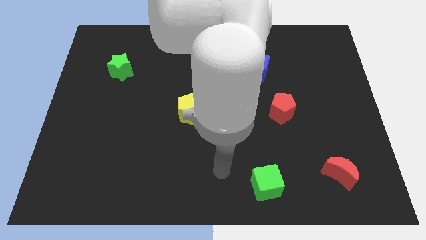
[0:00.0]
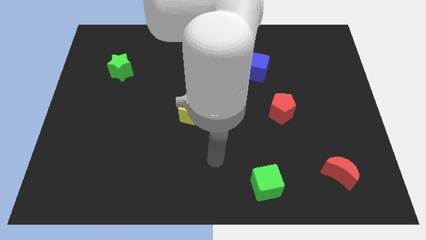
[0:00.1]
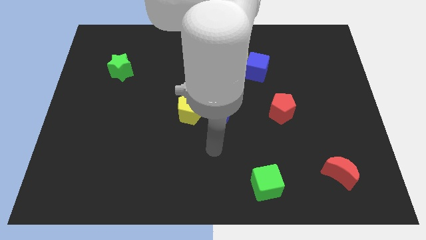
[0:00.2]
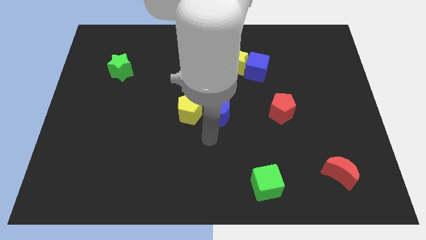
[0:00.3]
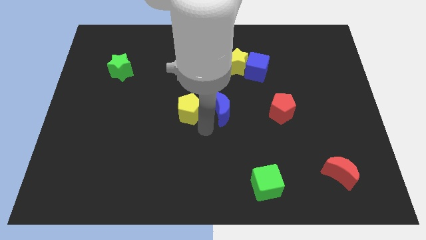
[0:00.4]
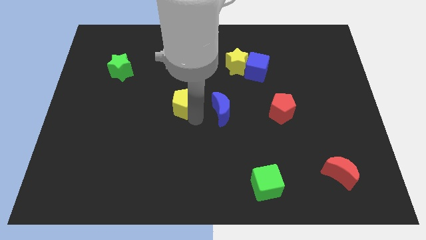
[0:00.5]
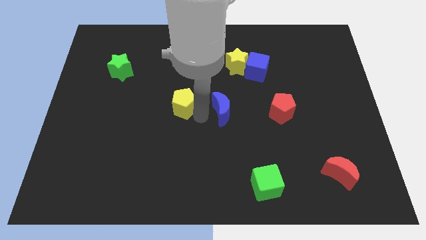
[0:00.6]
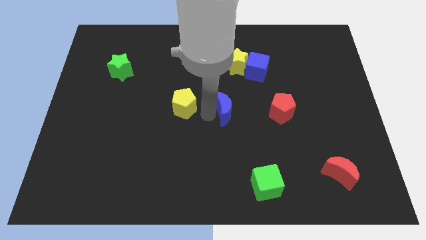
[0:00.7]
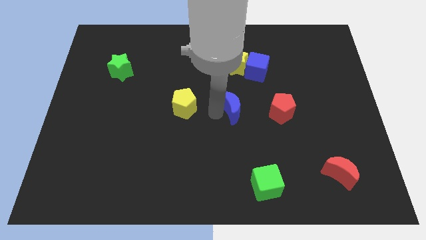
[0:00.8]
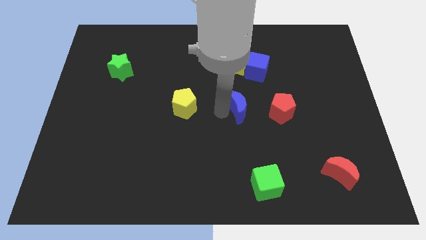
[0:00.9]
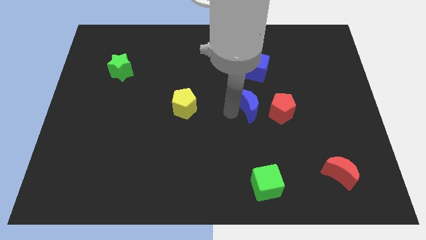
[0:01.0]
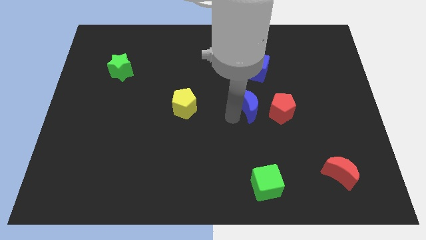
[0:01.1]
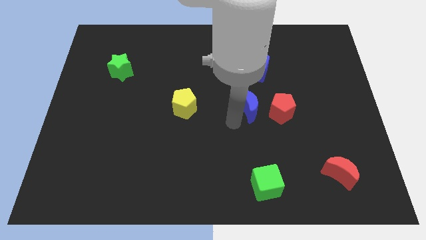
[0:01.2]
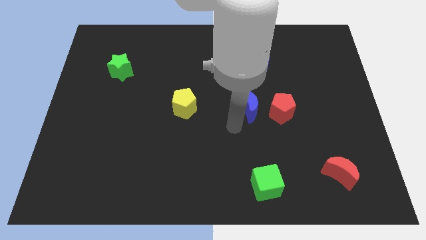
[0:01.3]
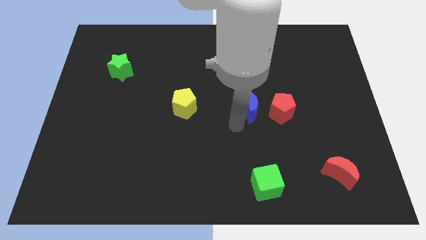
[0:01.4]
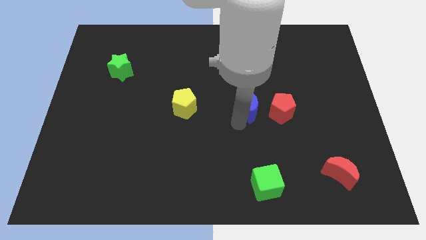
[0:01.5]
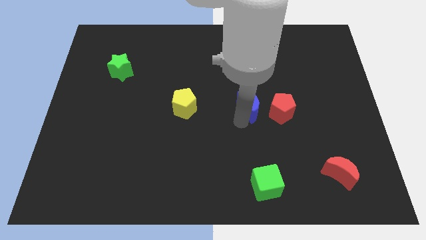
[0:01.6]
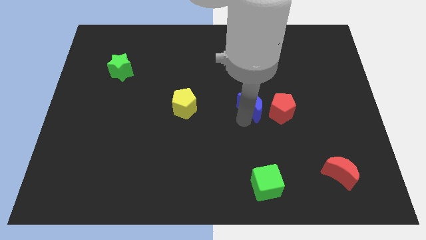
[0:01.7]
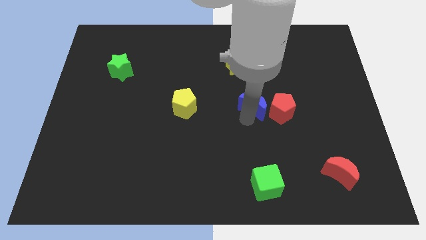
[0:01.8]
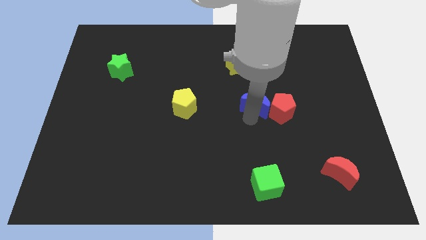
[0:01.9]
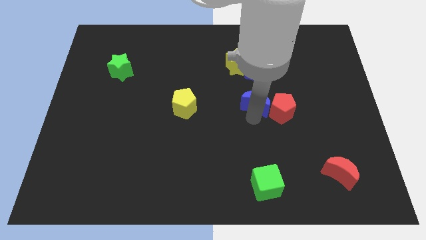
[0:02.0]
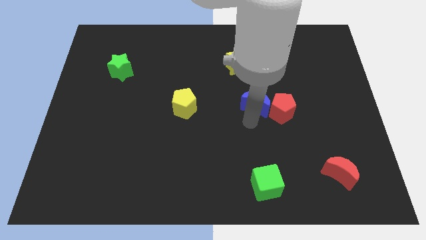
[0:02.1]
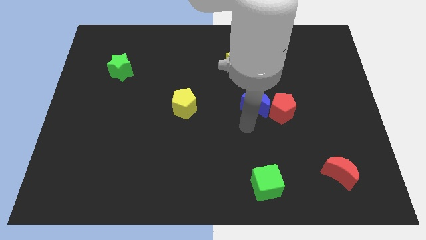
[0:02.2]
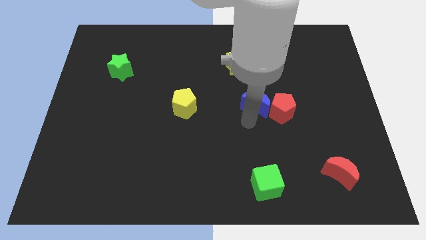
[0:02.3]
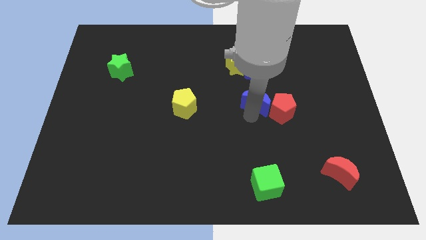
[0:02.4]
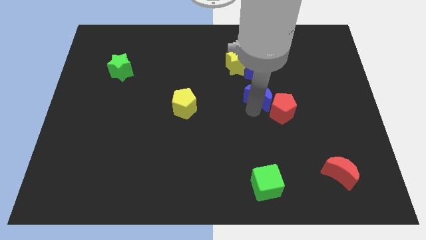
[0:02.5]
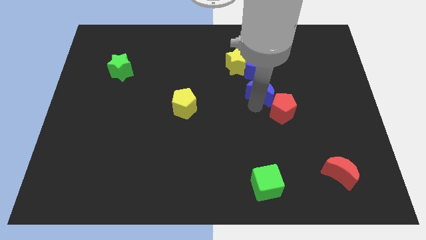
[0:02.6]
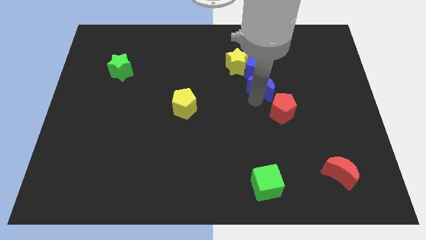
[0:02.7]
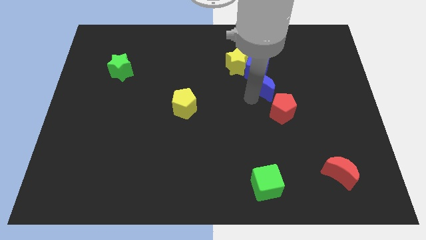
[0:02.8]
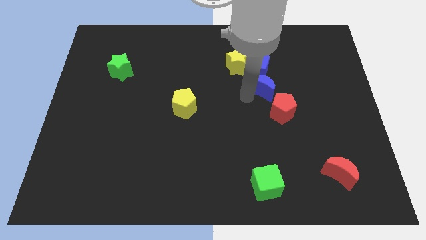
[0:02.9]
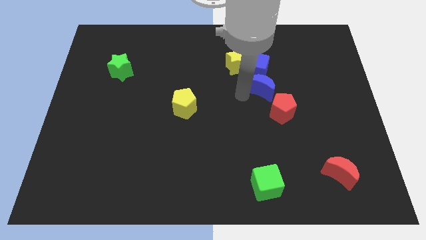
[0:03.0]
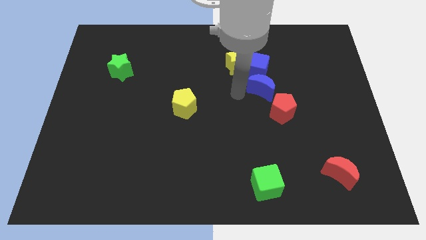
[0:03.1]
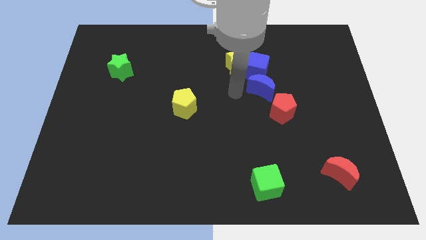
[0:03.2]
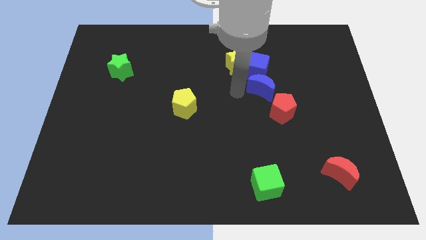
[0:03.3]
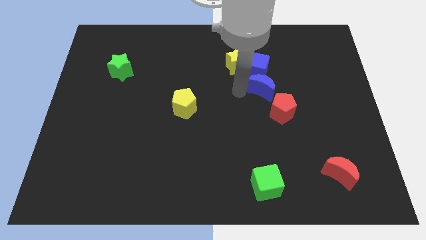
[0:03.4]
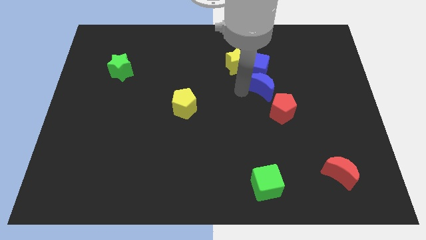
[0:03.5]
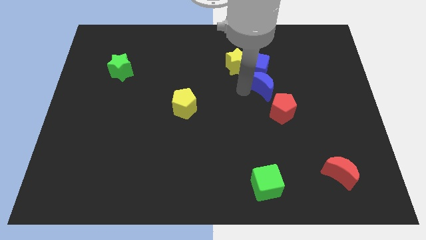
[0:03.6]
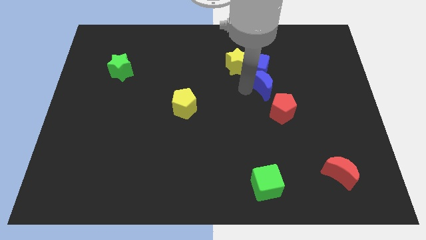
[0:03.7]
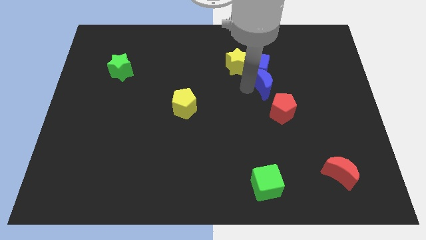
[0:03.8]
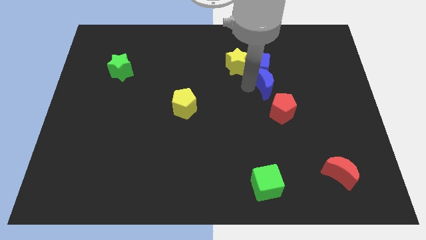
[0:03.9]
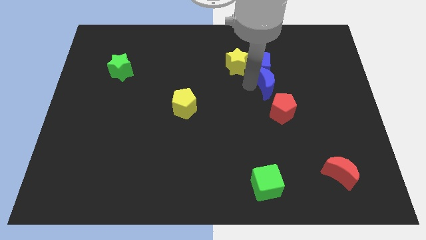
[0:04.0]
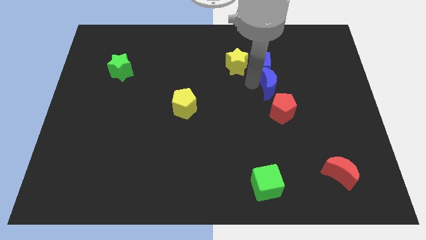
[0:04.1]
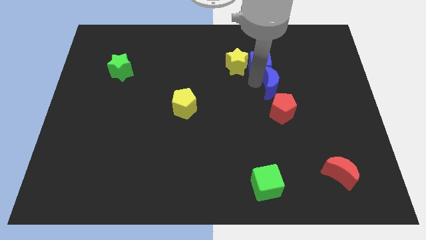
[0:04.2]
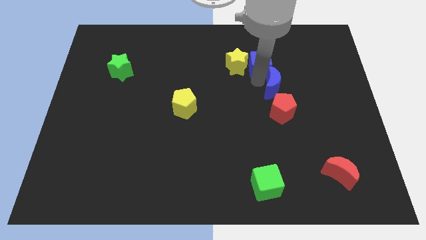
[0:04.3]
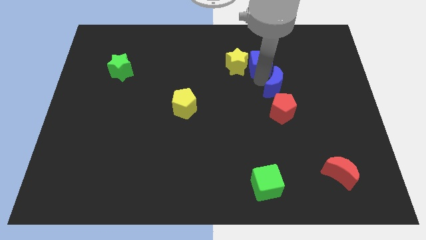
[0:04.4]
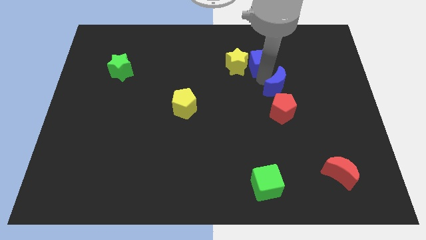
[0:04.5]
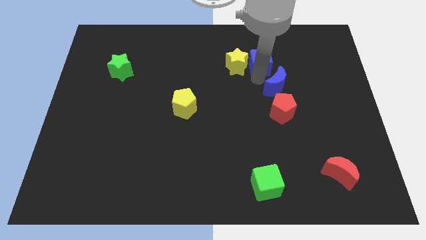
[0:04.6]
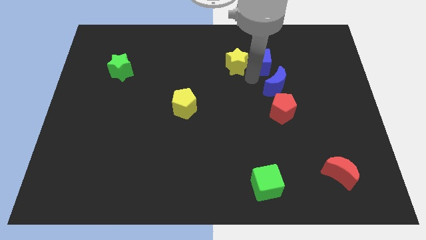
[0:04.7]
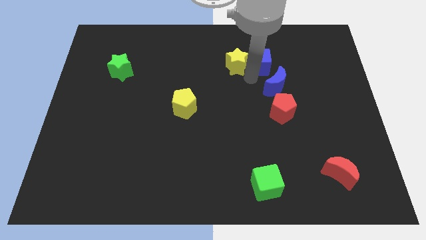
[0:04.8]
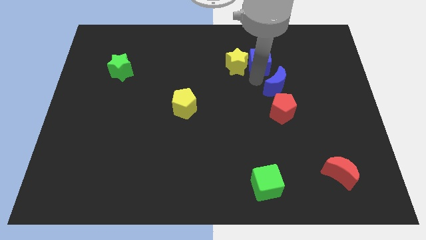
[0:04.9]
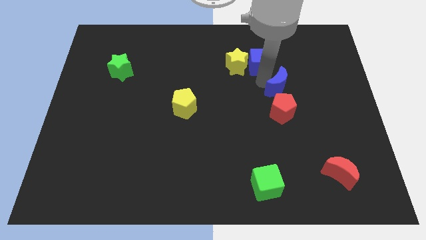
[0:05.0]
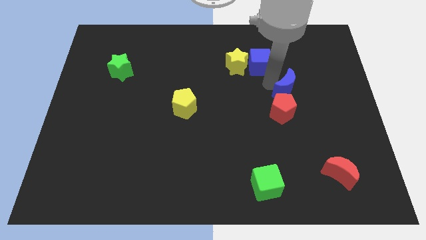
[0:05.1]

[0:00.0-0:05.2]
slide the blue moon to the top right side of the red pentagon

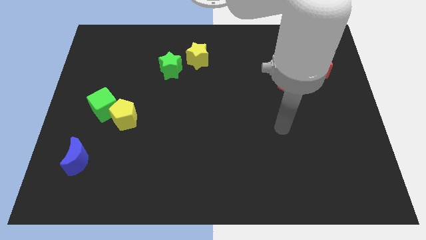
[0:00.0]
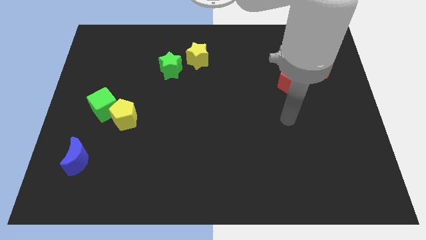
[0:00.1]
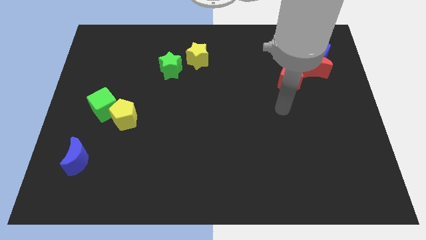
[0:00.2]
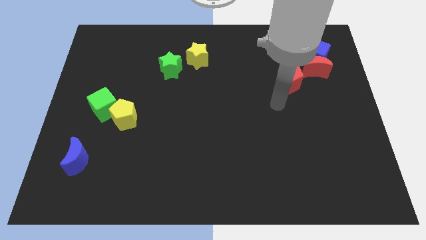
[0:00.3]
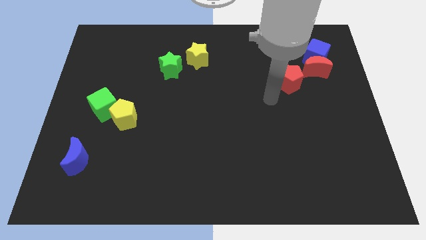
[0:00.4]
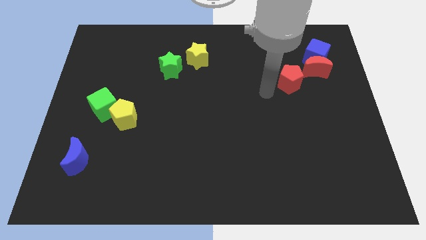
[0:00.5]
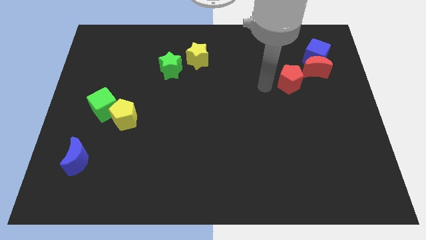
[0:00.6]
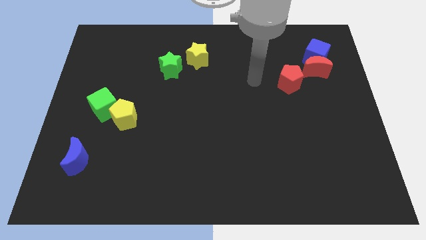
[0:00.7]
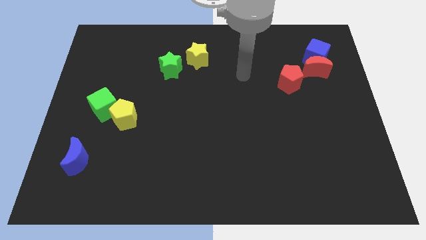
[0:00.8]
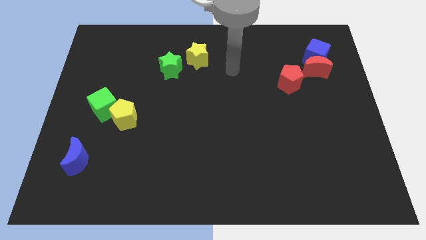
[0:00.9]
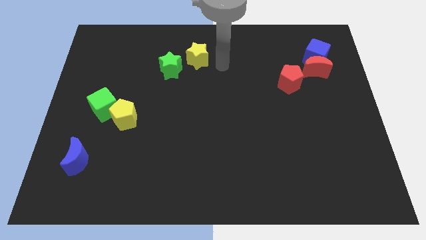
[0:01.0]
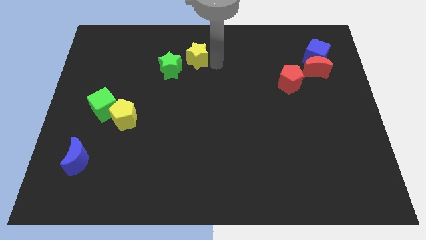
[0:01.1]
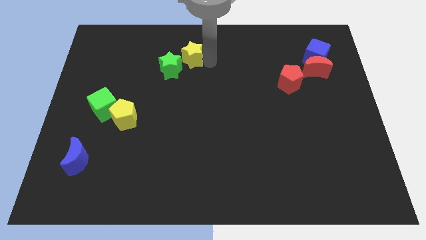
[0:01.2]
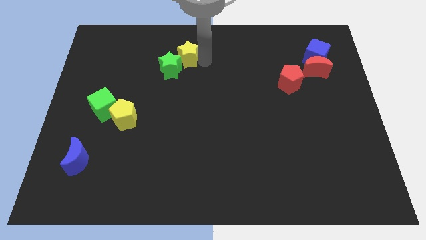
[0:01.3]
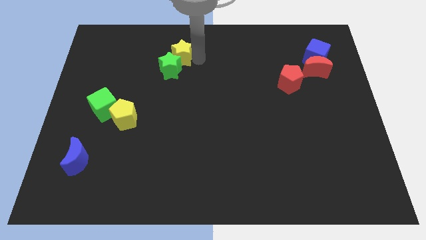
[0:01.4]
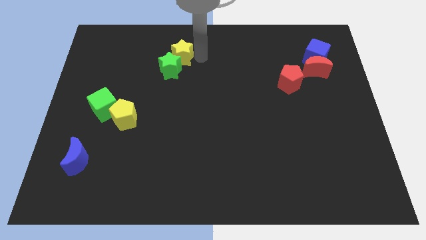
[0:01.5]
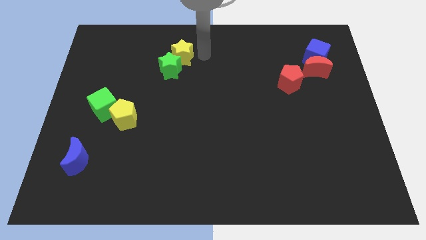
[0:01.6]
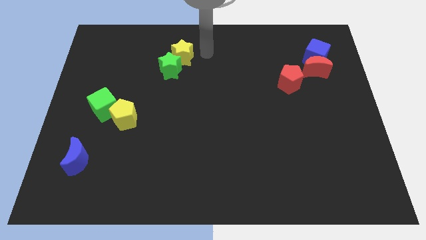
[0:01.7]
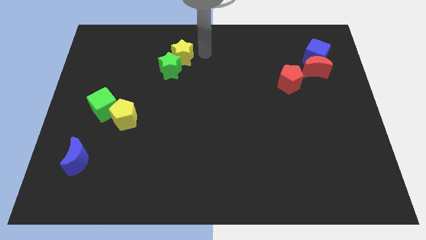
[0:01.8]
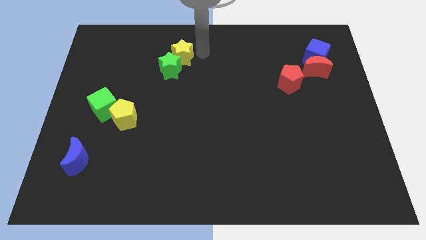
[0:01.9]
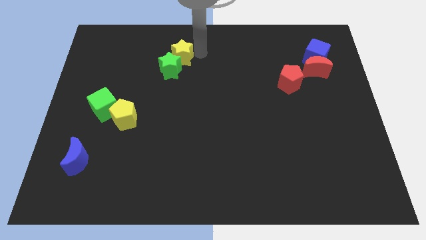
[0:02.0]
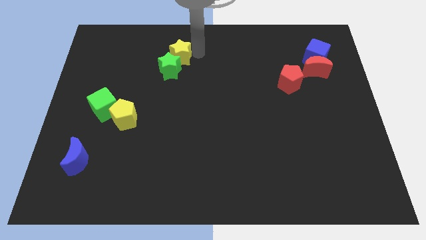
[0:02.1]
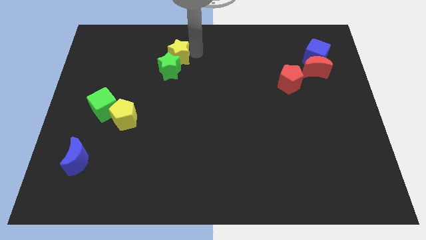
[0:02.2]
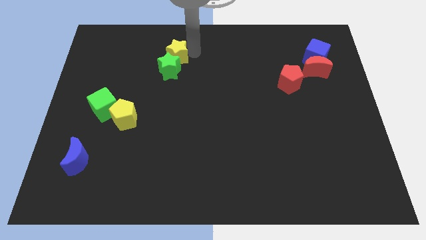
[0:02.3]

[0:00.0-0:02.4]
slide the yellow star to the top left of the green star
